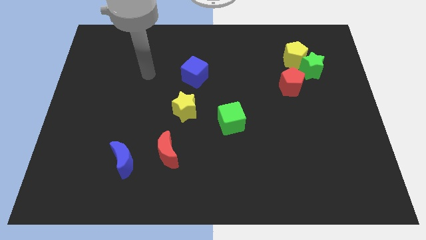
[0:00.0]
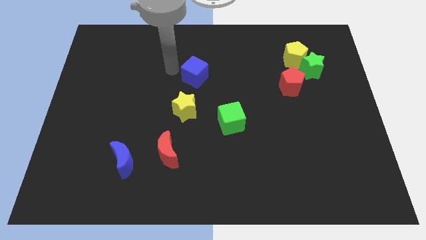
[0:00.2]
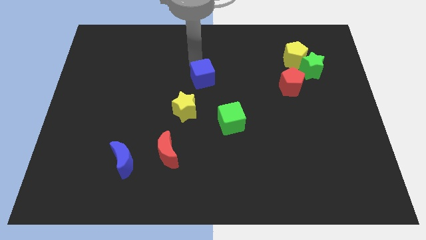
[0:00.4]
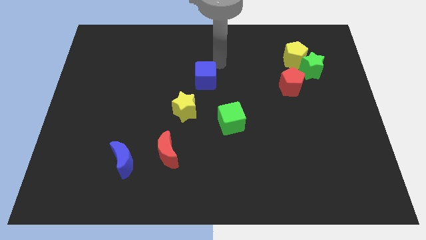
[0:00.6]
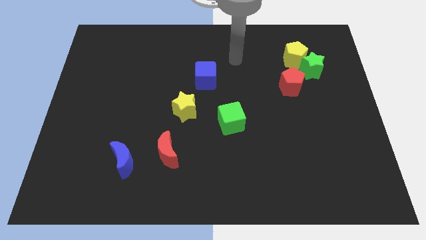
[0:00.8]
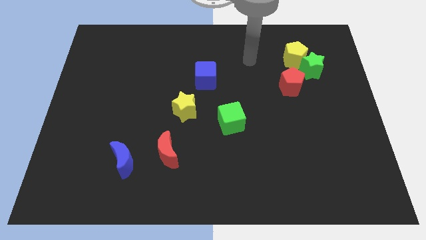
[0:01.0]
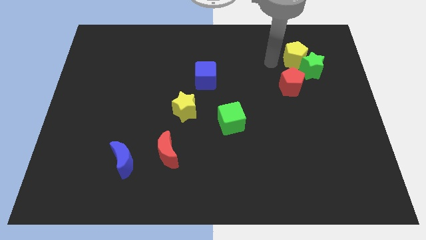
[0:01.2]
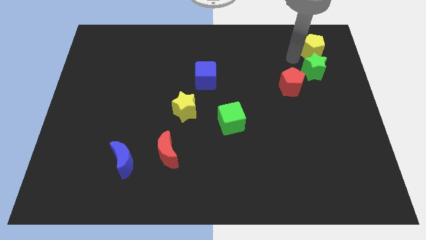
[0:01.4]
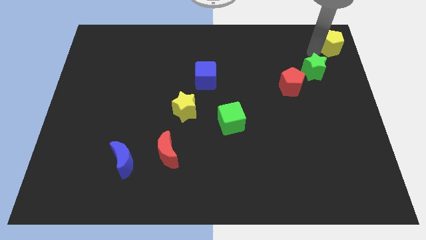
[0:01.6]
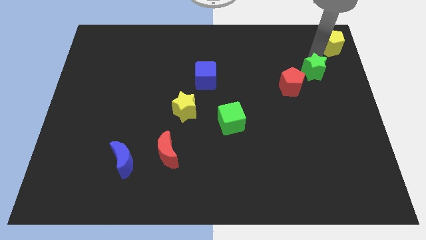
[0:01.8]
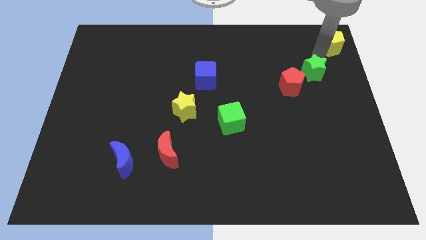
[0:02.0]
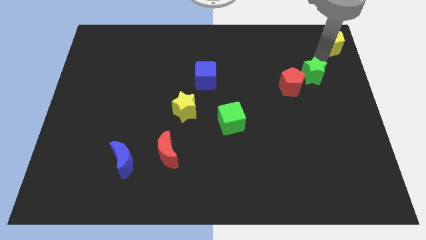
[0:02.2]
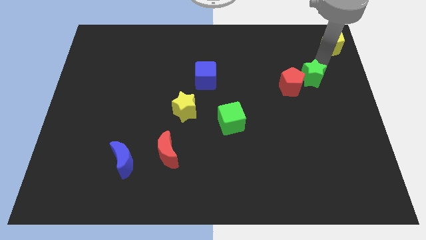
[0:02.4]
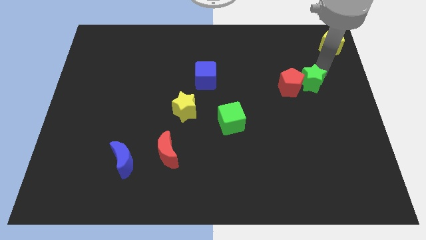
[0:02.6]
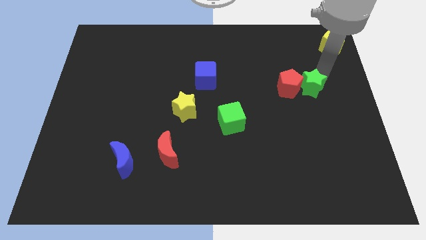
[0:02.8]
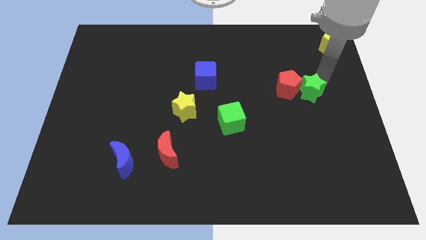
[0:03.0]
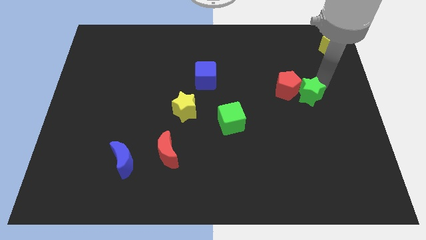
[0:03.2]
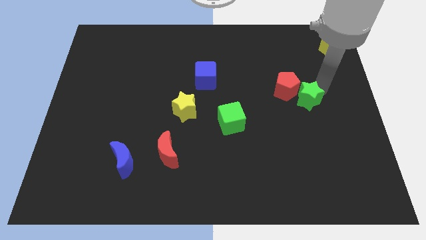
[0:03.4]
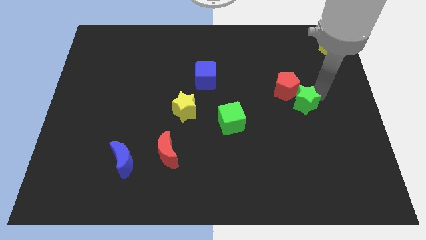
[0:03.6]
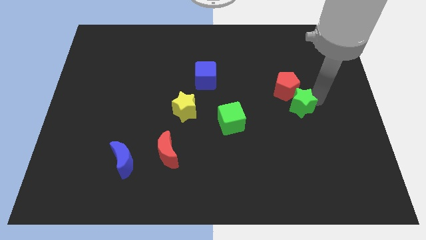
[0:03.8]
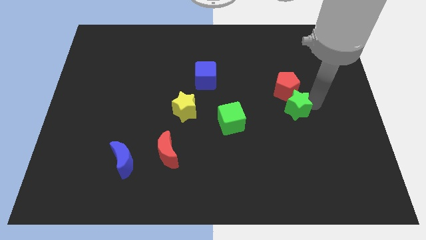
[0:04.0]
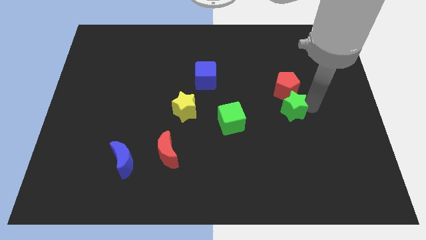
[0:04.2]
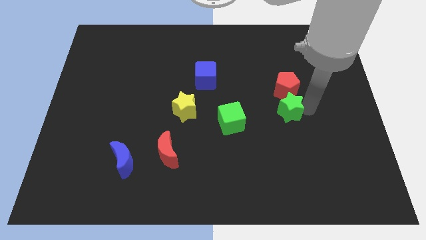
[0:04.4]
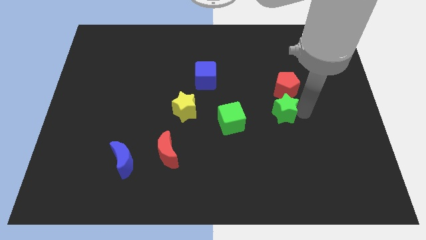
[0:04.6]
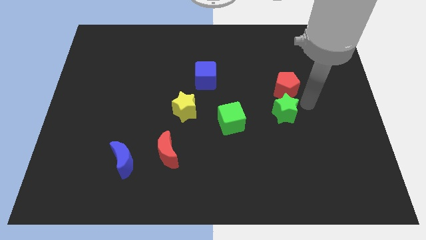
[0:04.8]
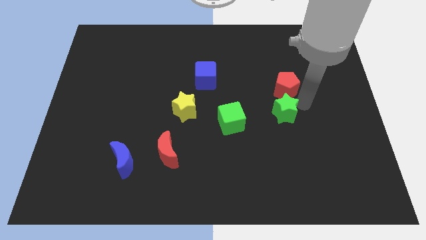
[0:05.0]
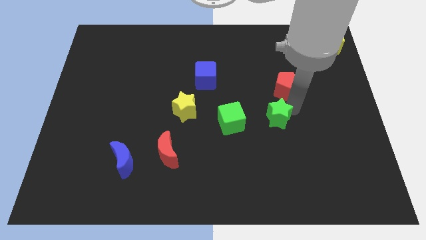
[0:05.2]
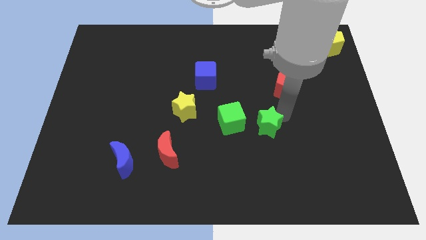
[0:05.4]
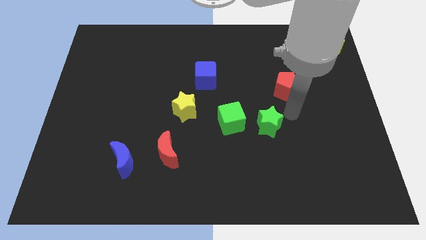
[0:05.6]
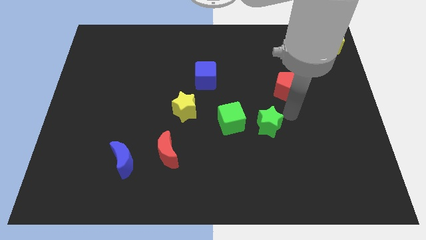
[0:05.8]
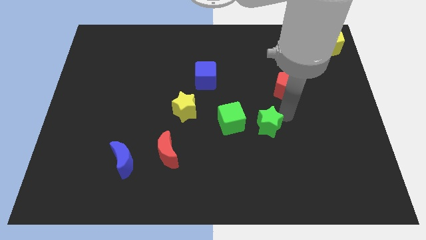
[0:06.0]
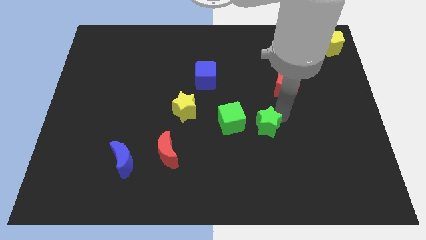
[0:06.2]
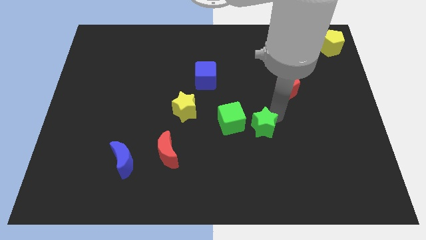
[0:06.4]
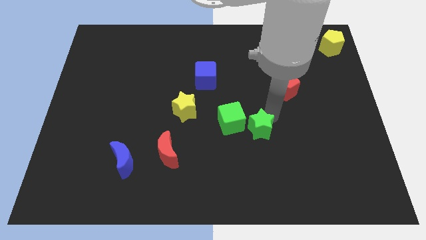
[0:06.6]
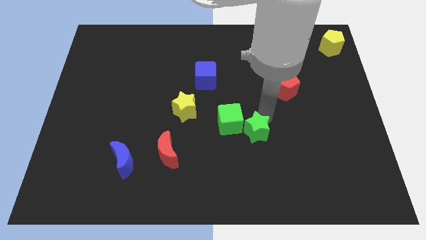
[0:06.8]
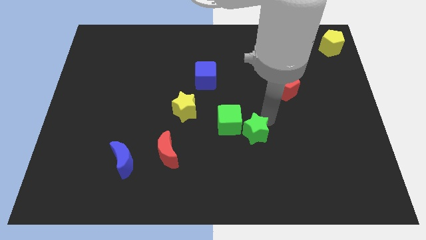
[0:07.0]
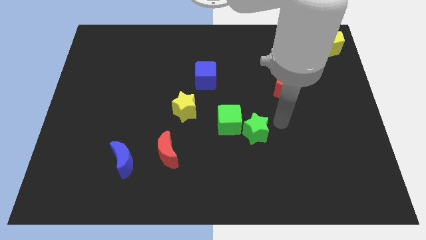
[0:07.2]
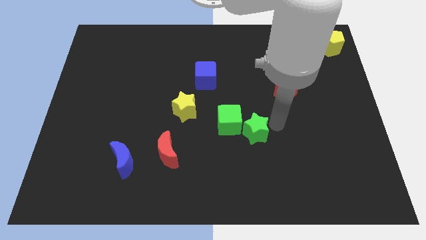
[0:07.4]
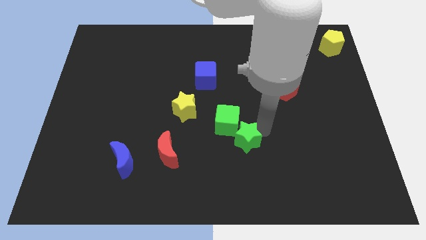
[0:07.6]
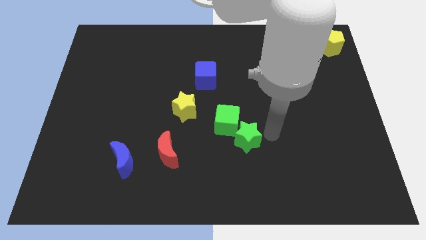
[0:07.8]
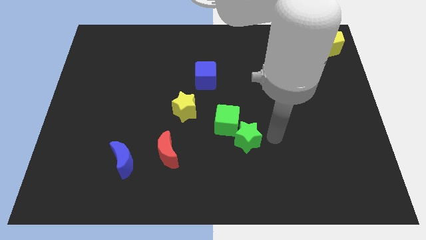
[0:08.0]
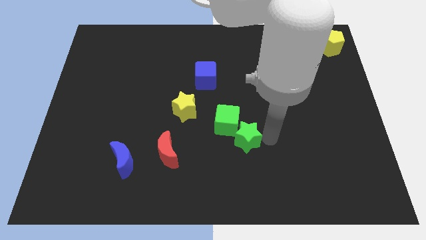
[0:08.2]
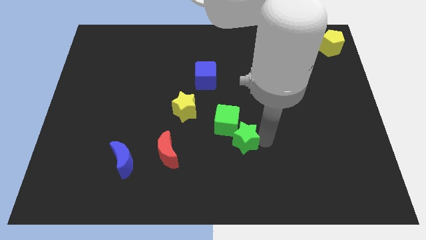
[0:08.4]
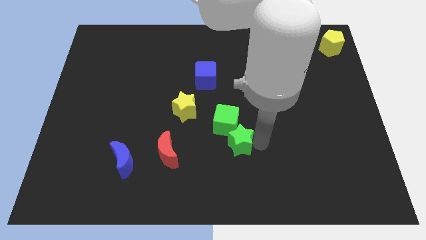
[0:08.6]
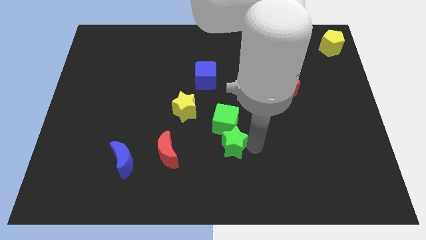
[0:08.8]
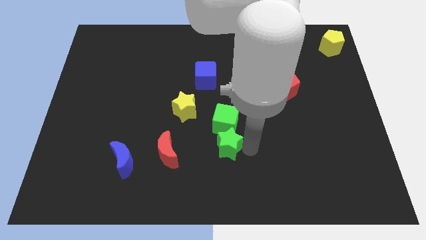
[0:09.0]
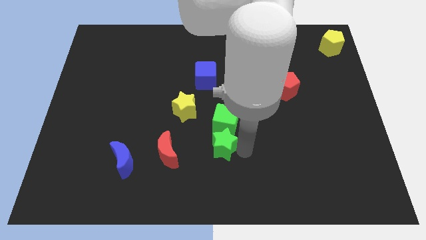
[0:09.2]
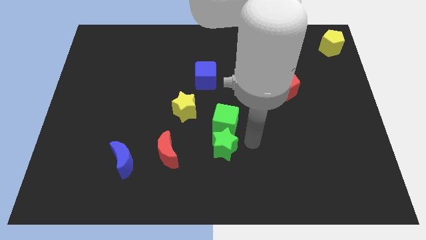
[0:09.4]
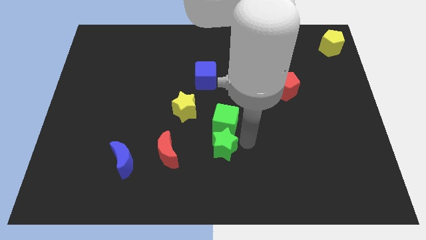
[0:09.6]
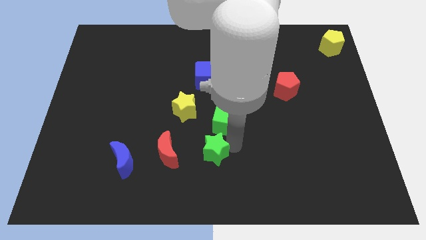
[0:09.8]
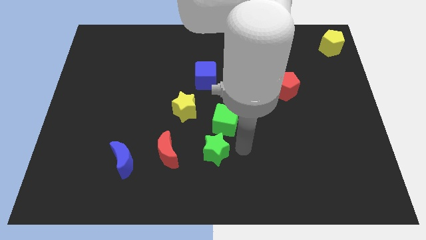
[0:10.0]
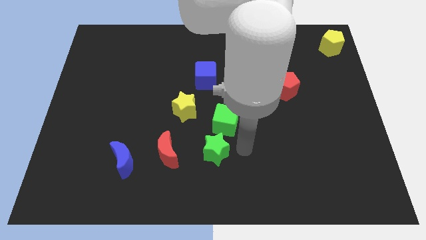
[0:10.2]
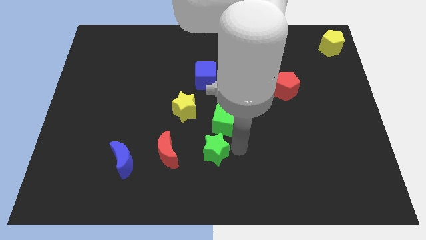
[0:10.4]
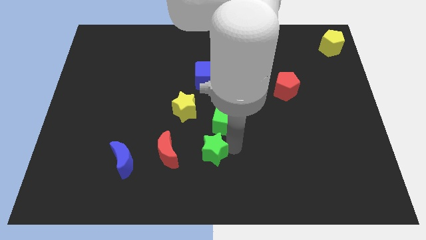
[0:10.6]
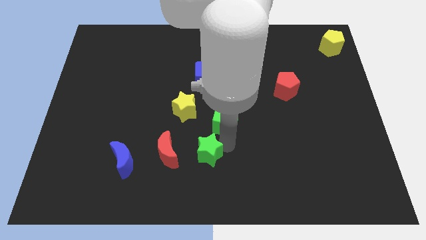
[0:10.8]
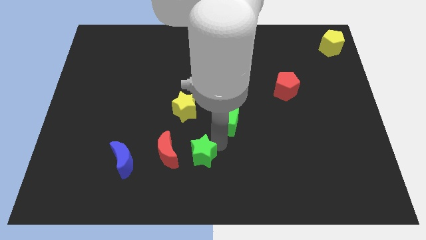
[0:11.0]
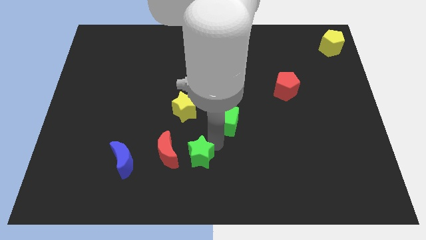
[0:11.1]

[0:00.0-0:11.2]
put the green star to the right of the blue moon
